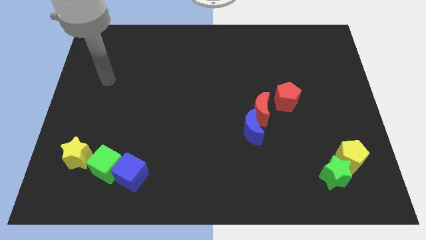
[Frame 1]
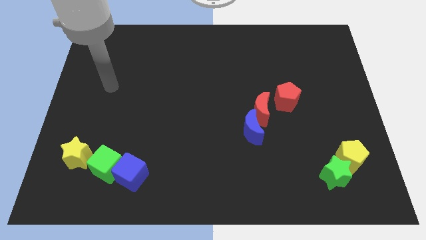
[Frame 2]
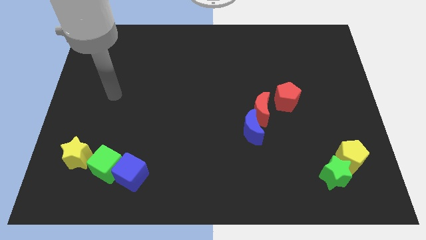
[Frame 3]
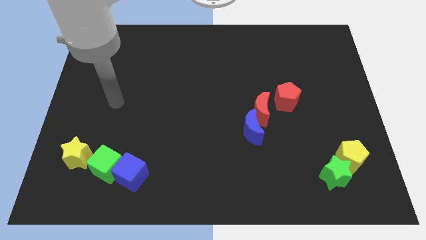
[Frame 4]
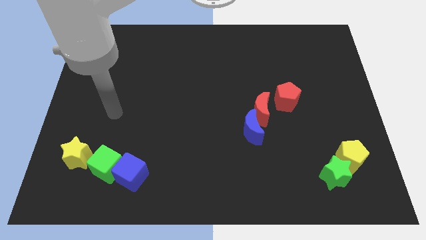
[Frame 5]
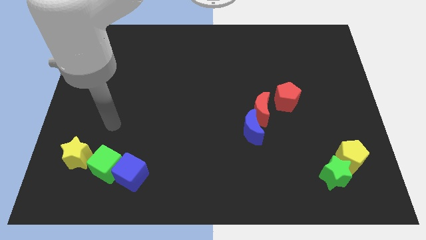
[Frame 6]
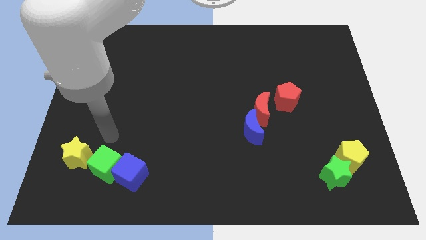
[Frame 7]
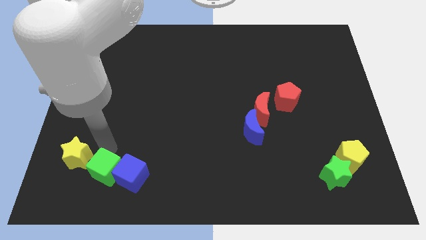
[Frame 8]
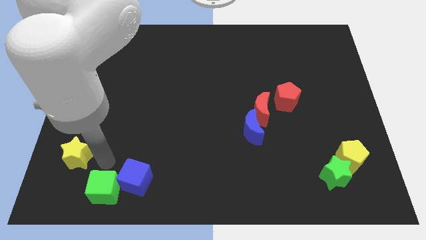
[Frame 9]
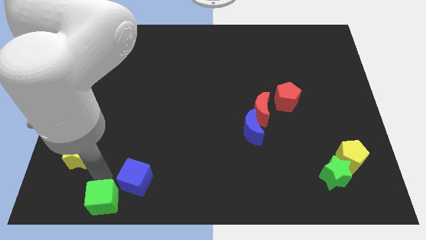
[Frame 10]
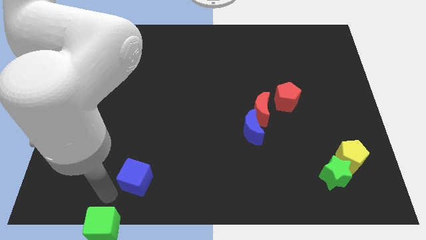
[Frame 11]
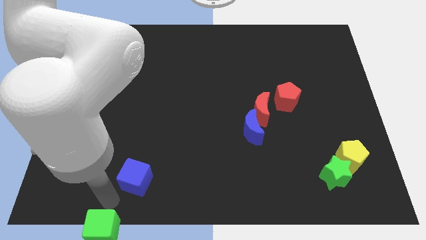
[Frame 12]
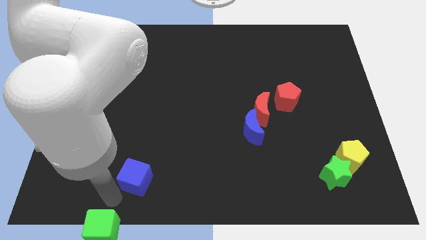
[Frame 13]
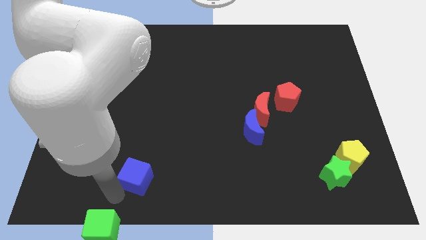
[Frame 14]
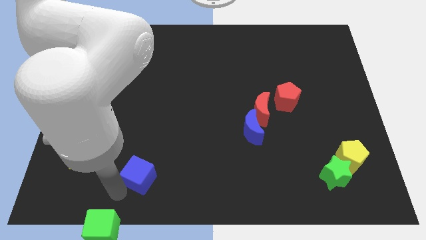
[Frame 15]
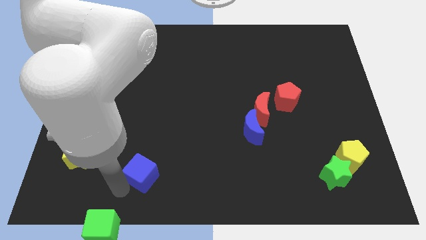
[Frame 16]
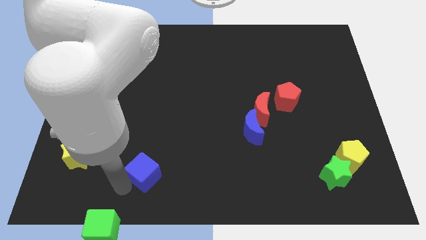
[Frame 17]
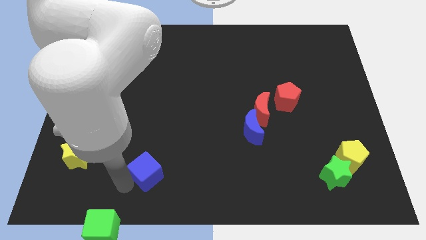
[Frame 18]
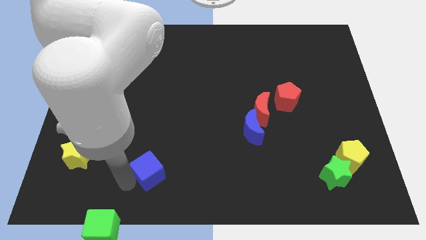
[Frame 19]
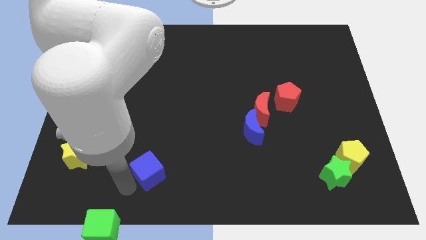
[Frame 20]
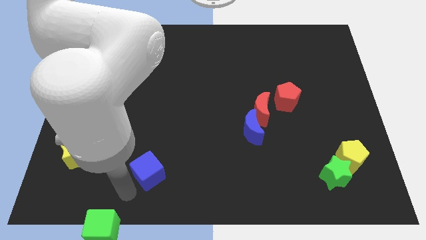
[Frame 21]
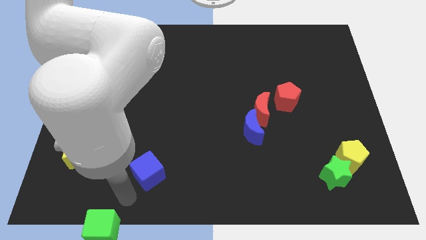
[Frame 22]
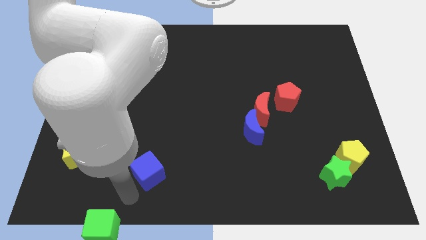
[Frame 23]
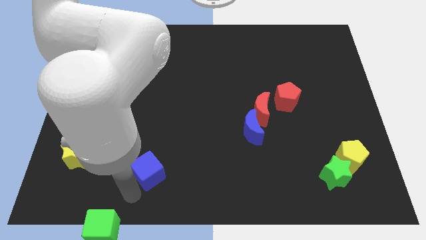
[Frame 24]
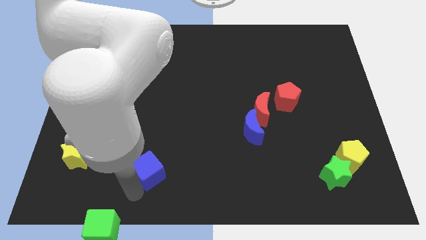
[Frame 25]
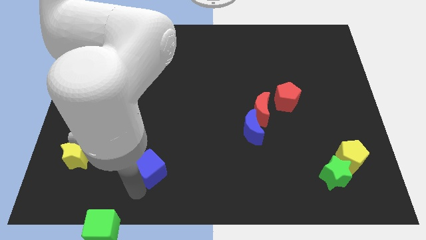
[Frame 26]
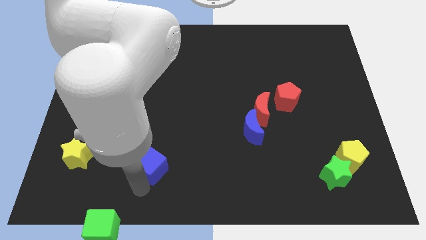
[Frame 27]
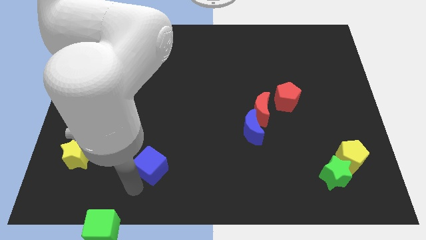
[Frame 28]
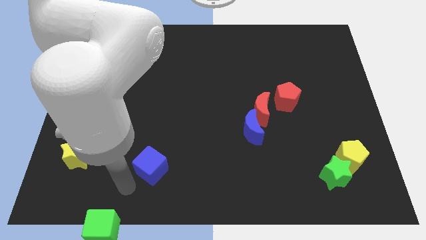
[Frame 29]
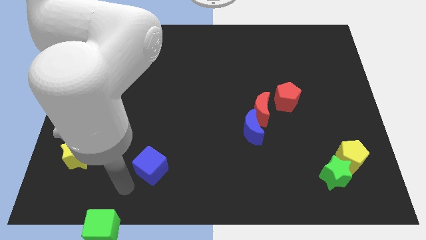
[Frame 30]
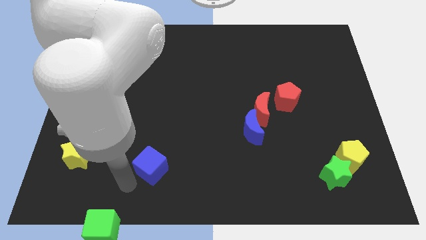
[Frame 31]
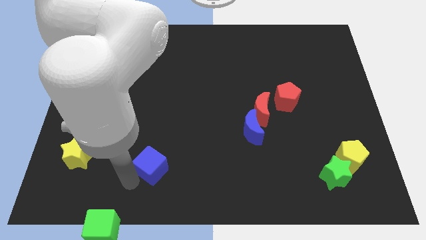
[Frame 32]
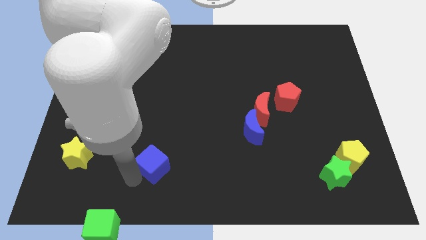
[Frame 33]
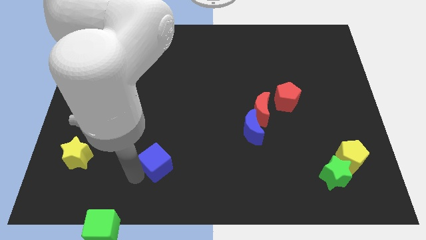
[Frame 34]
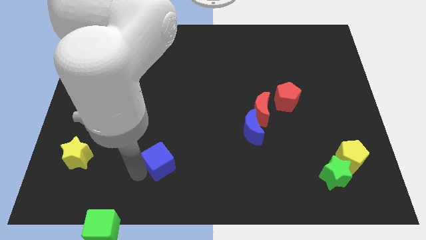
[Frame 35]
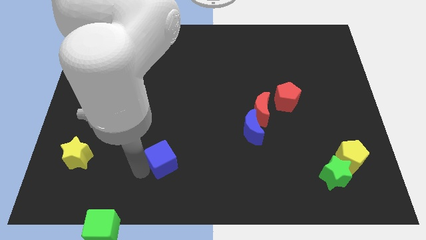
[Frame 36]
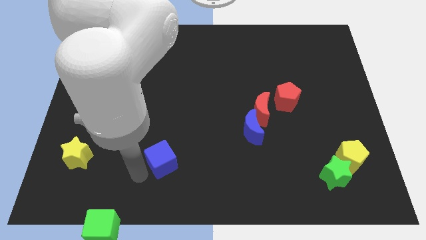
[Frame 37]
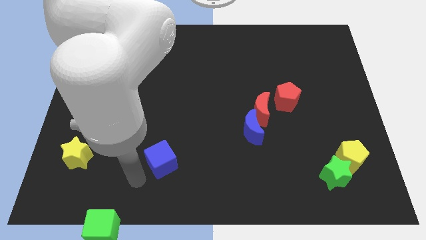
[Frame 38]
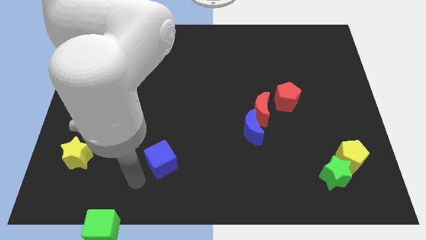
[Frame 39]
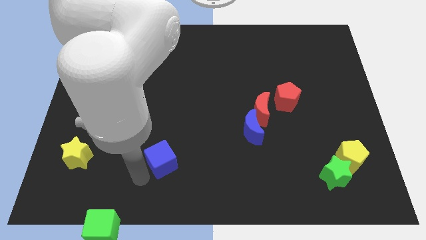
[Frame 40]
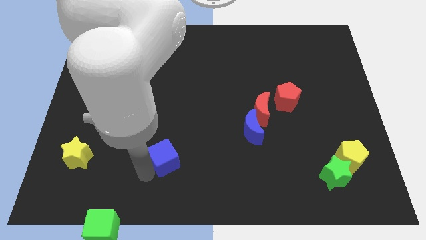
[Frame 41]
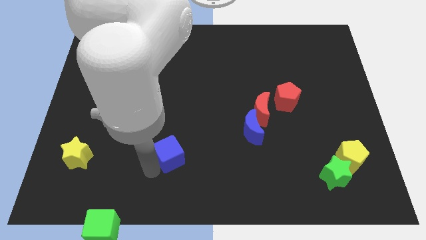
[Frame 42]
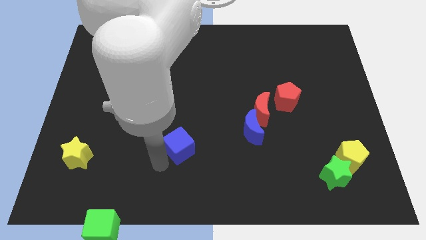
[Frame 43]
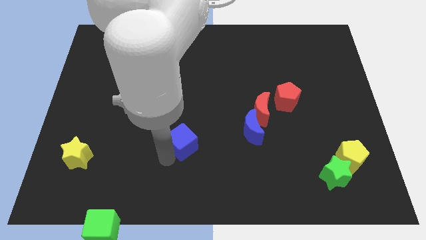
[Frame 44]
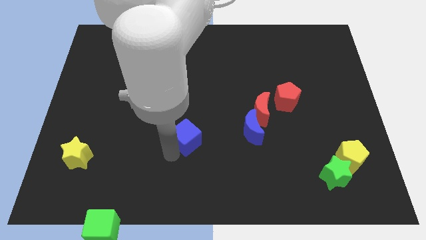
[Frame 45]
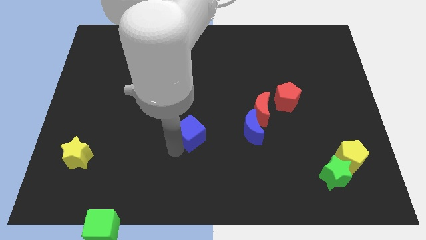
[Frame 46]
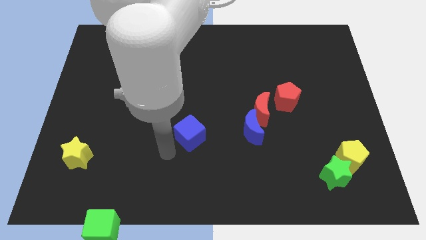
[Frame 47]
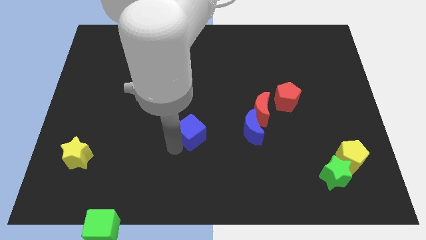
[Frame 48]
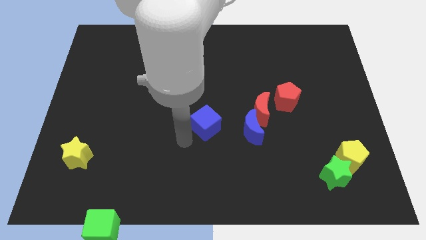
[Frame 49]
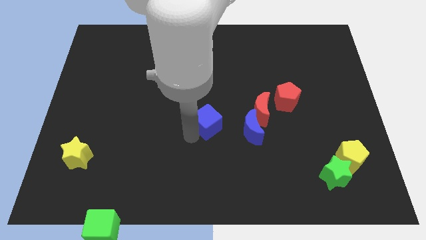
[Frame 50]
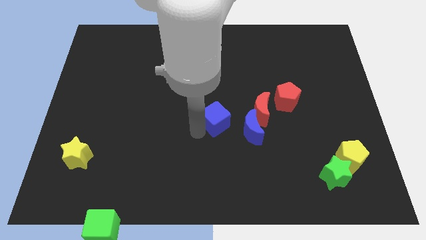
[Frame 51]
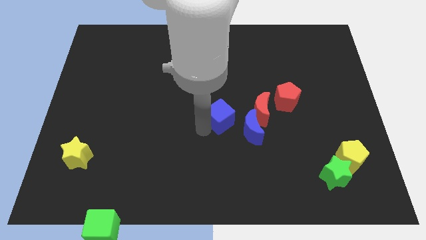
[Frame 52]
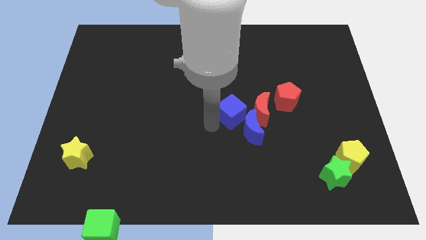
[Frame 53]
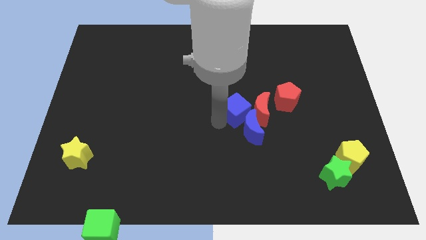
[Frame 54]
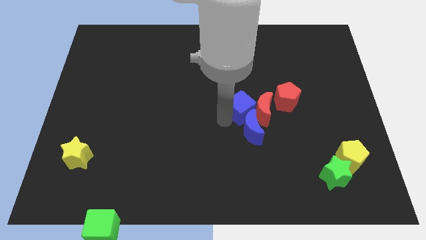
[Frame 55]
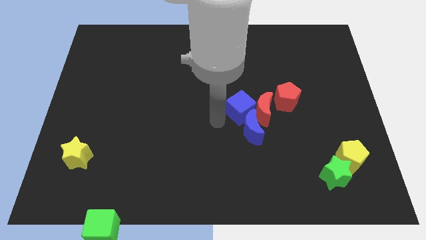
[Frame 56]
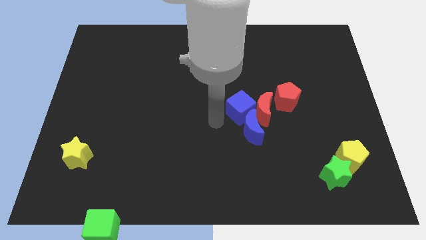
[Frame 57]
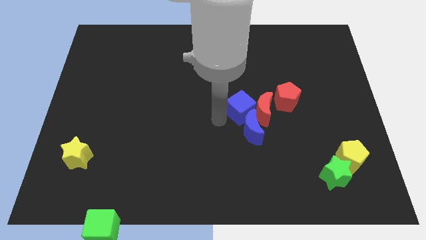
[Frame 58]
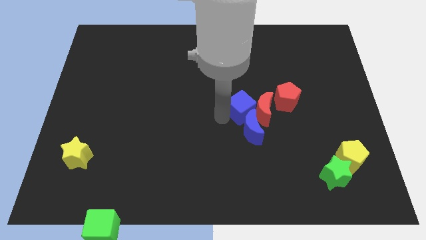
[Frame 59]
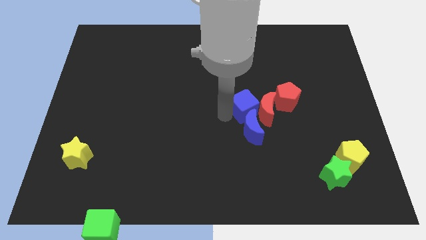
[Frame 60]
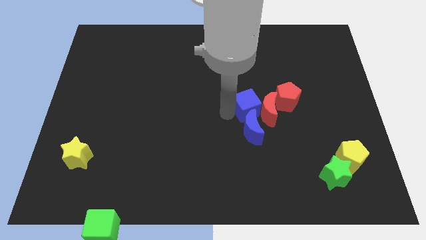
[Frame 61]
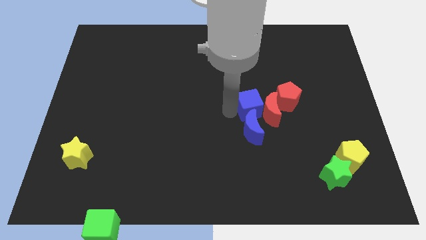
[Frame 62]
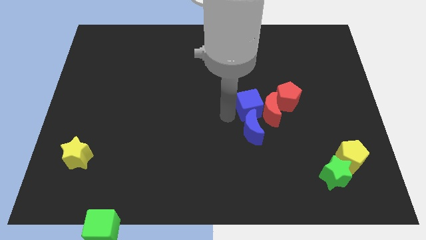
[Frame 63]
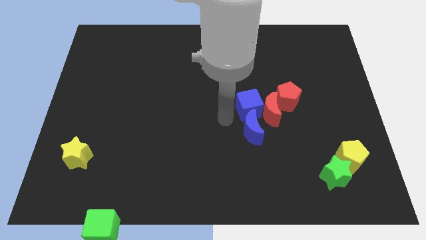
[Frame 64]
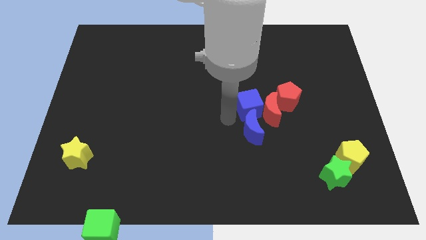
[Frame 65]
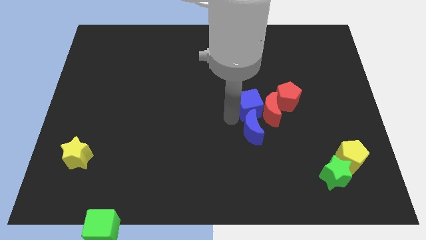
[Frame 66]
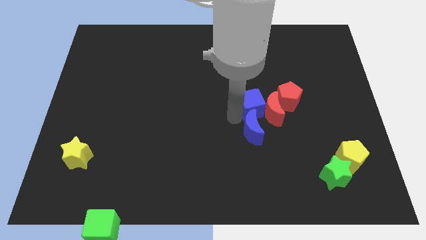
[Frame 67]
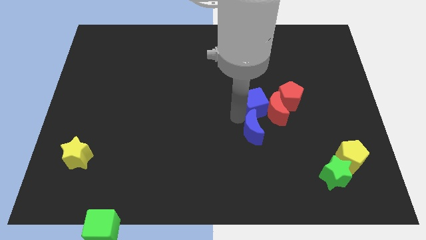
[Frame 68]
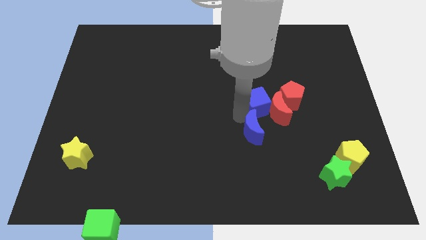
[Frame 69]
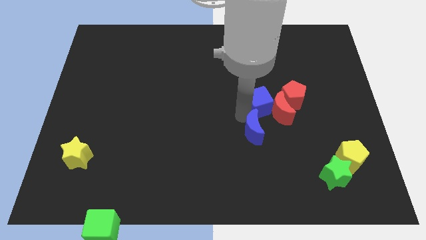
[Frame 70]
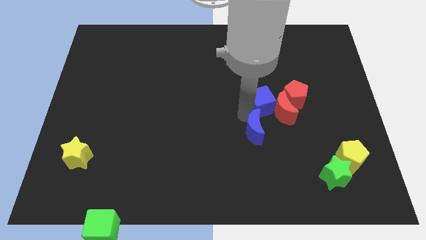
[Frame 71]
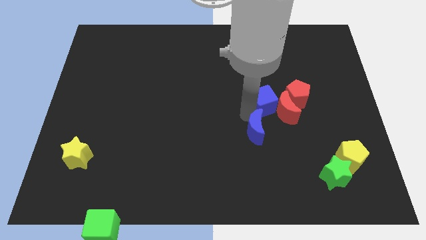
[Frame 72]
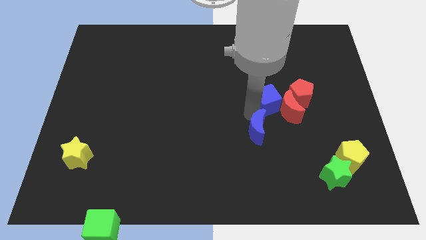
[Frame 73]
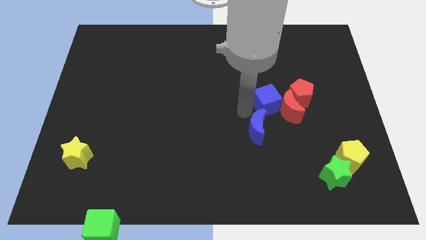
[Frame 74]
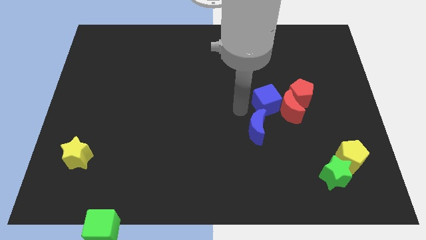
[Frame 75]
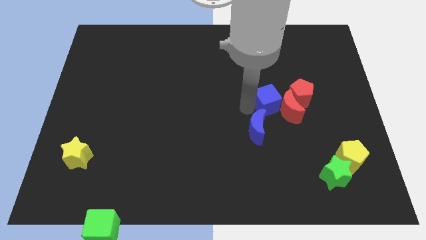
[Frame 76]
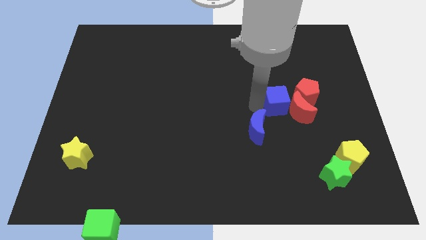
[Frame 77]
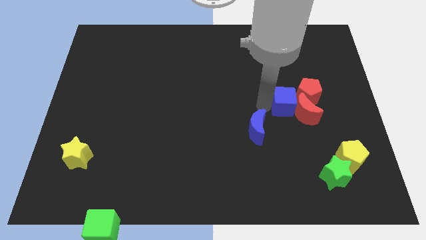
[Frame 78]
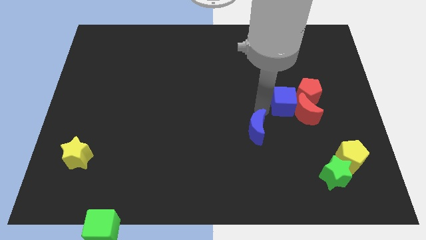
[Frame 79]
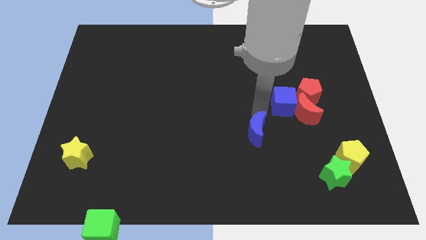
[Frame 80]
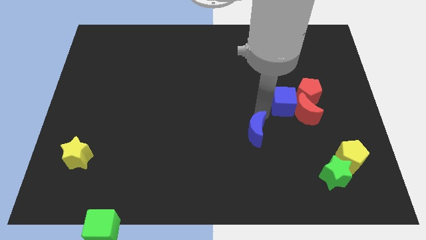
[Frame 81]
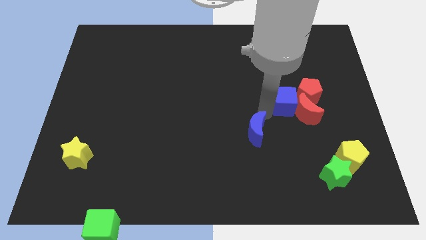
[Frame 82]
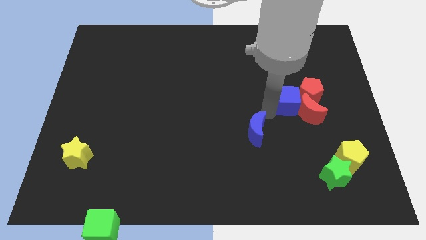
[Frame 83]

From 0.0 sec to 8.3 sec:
put the blue cube next to the red pentagon
